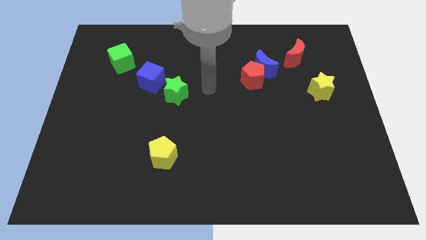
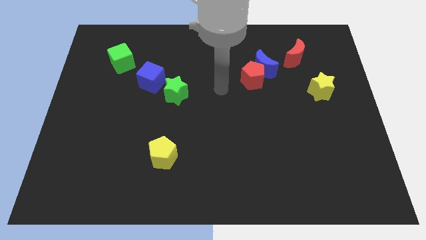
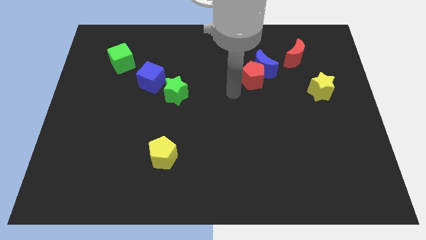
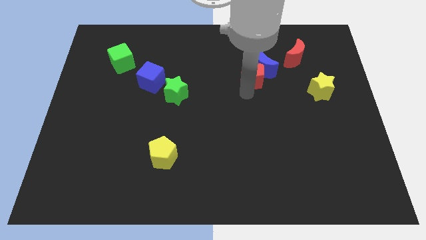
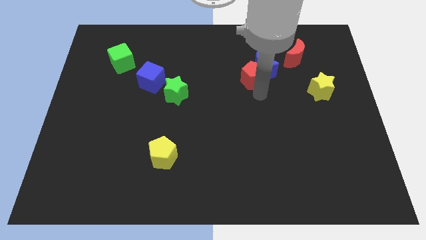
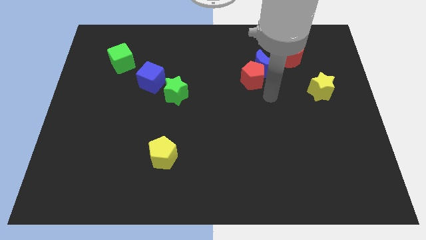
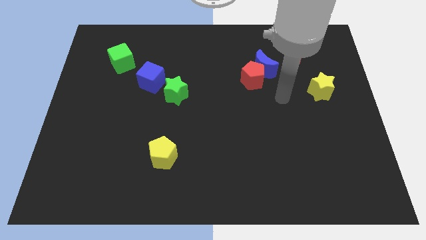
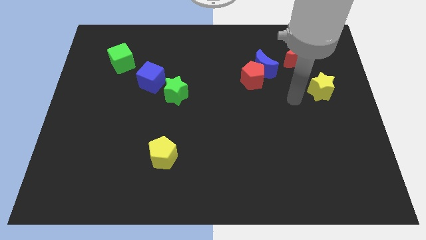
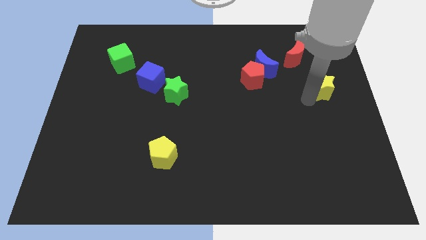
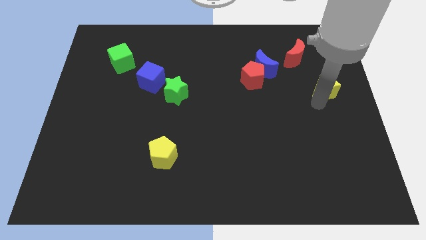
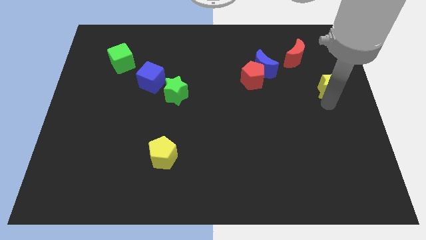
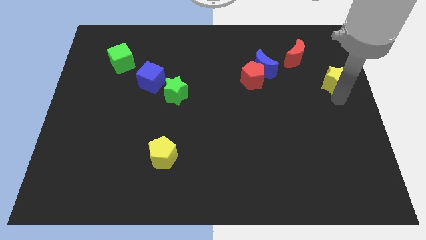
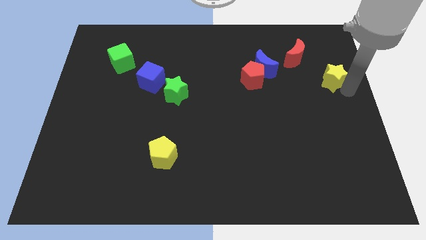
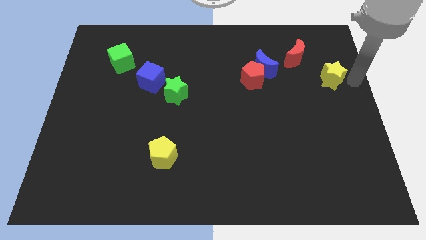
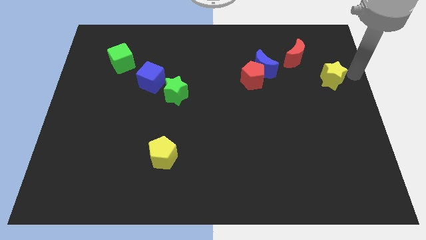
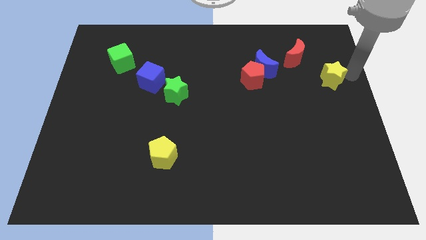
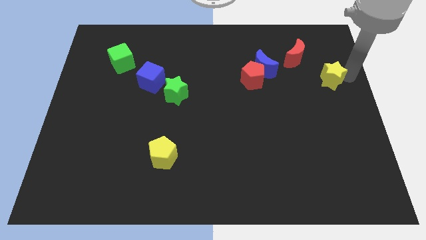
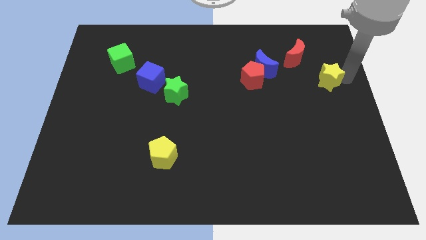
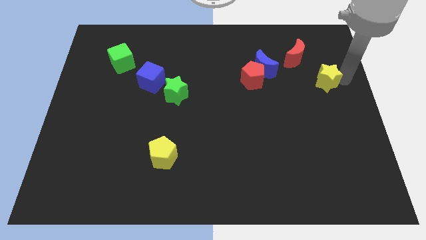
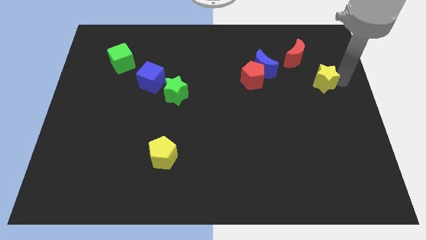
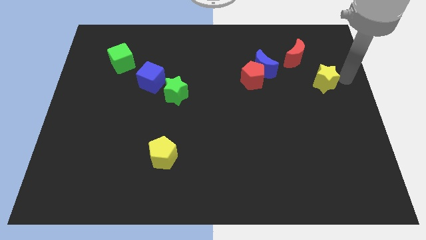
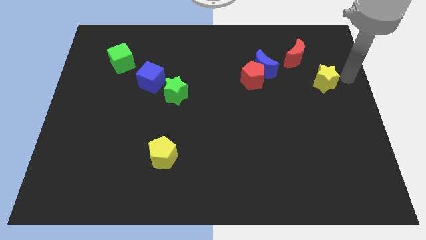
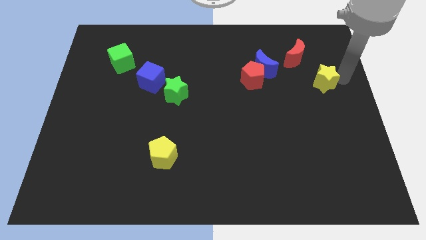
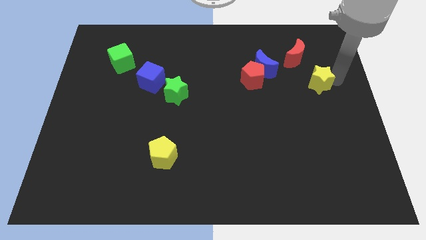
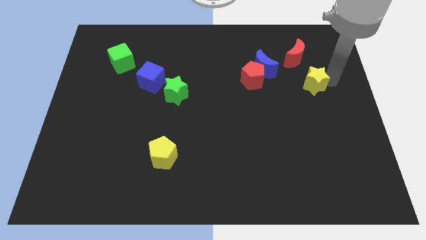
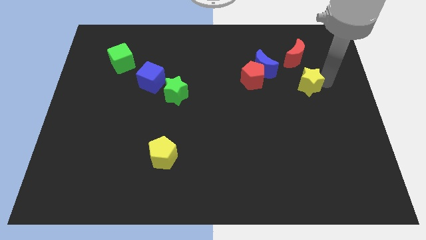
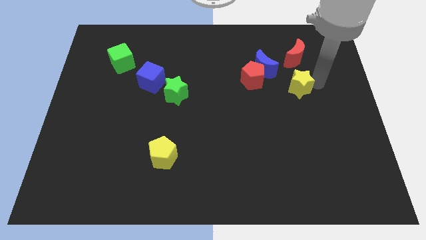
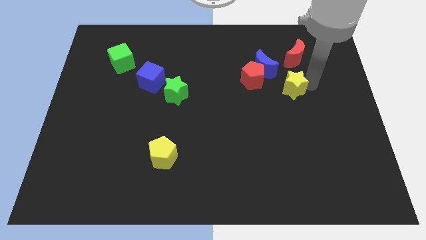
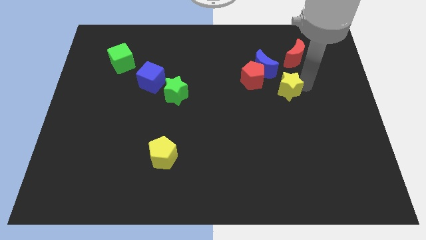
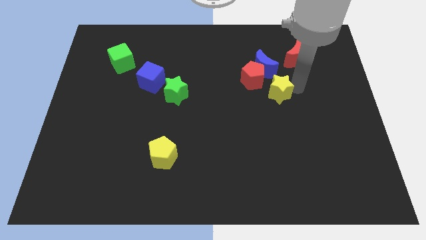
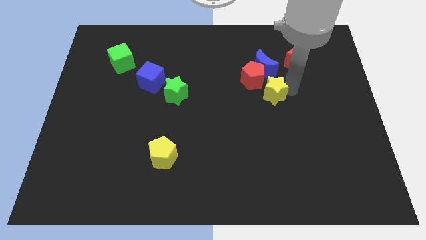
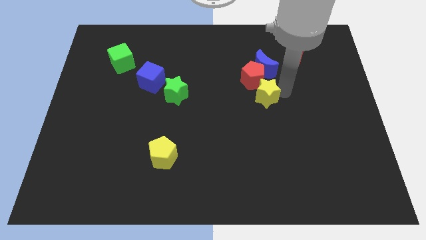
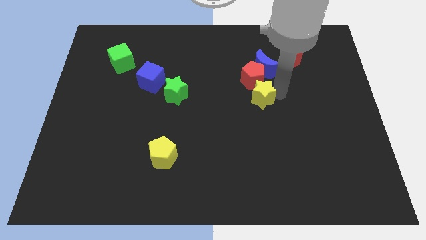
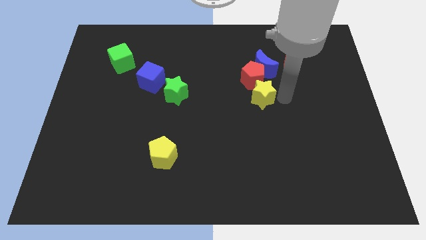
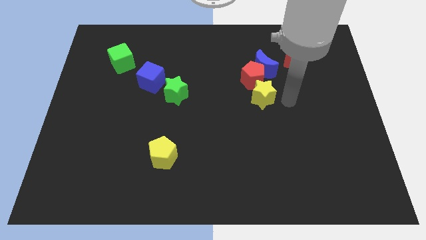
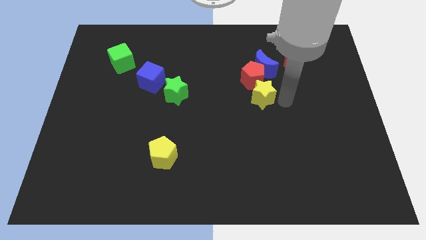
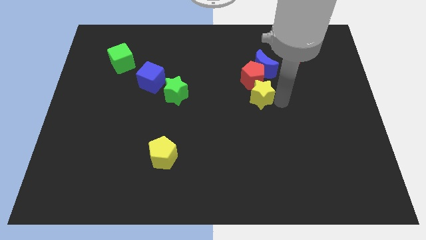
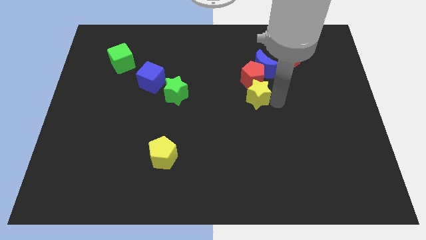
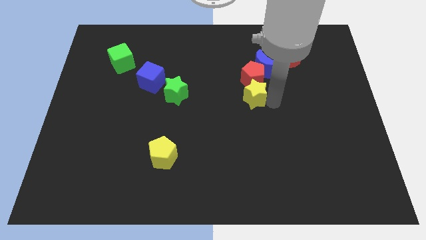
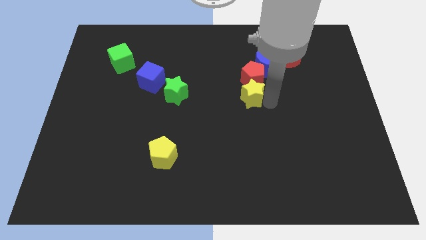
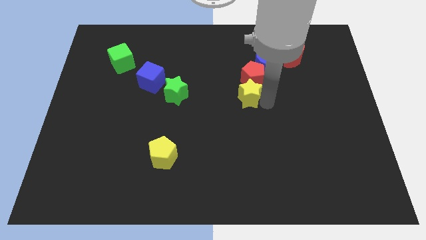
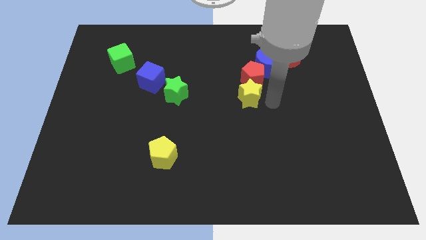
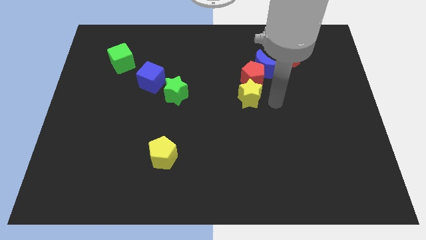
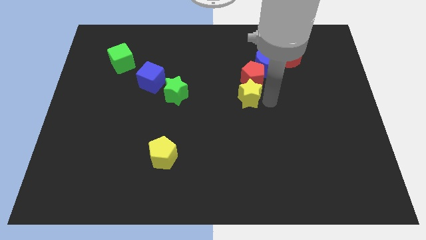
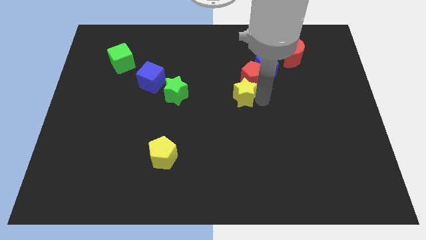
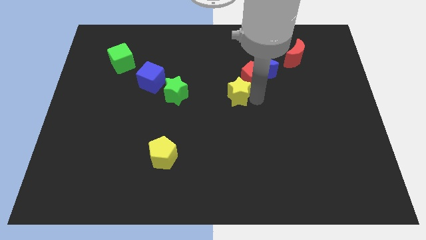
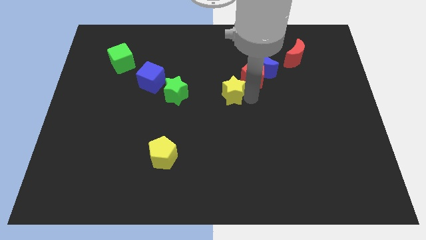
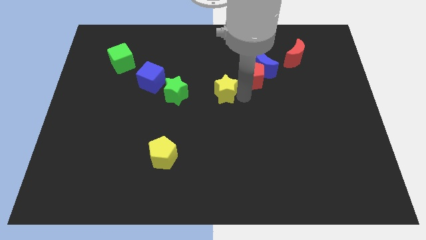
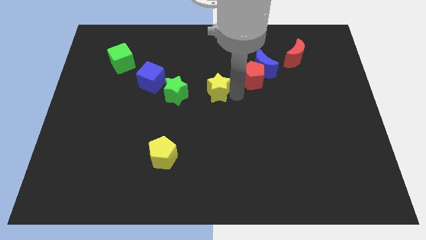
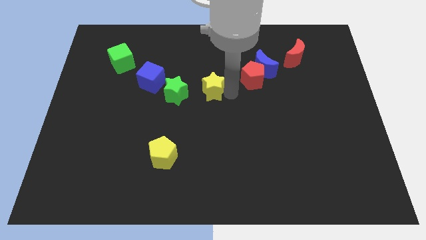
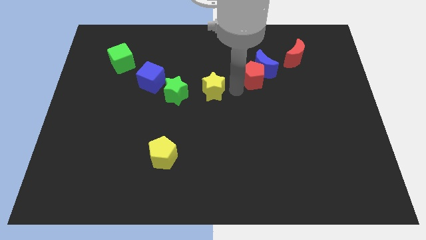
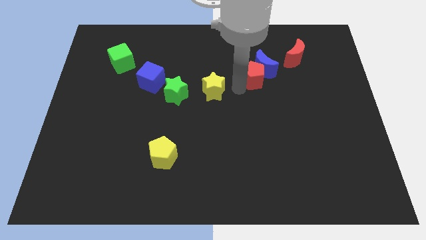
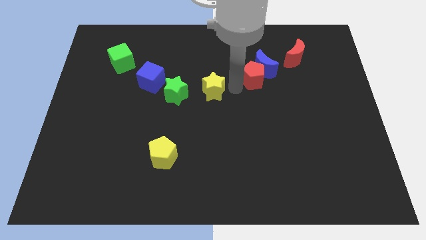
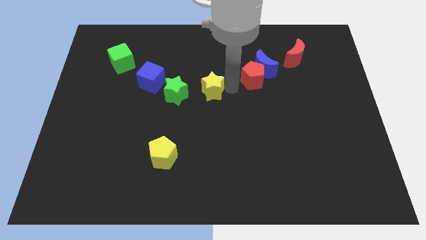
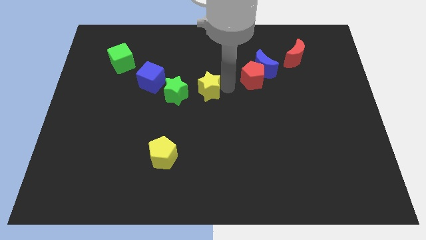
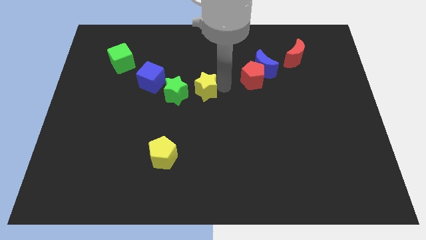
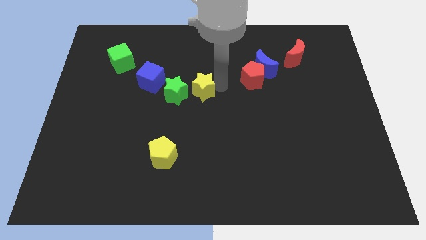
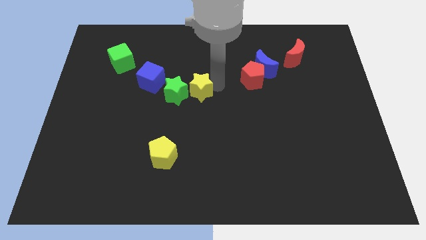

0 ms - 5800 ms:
move the yellow star to the green star

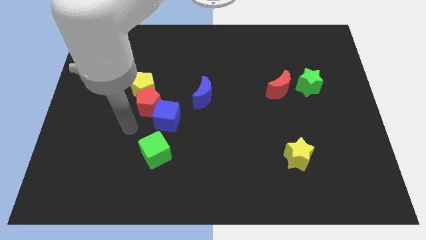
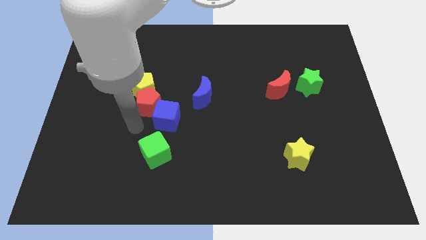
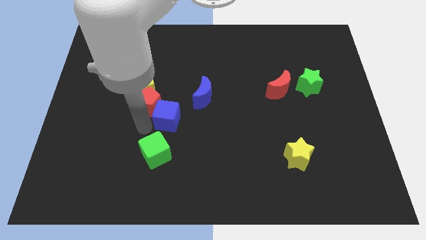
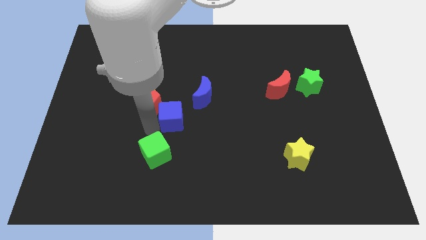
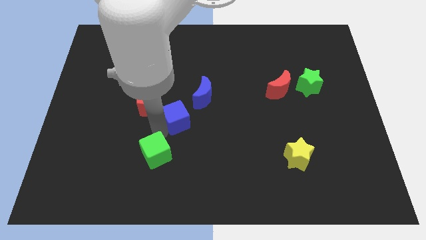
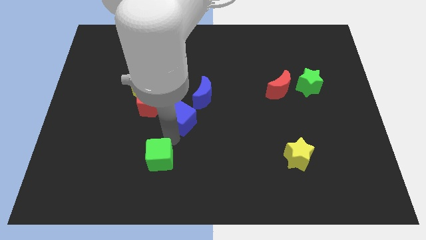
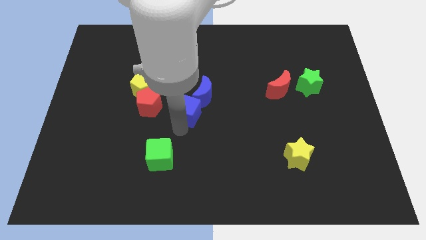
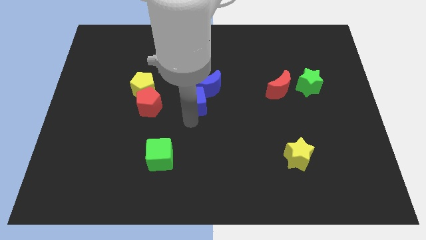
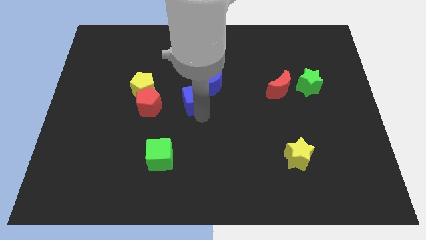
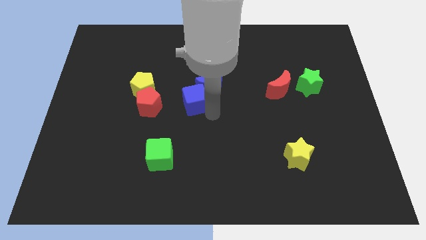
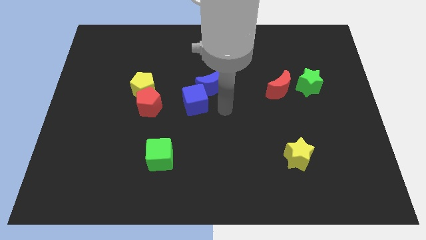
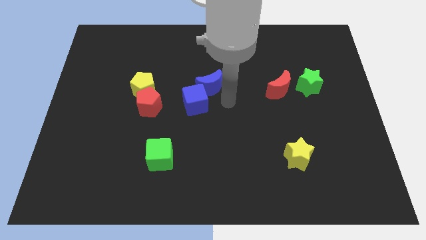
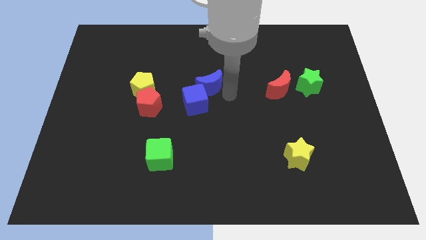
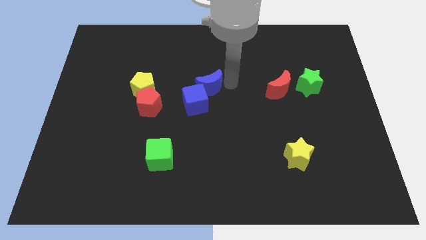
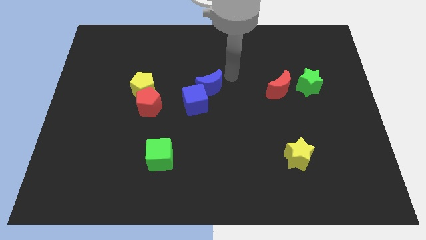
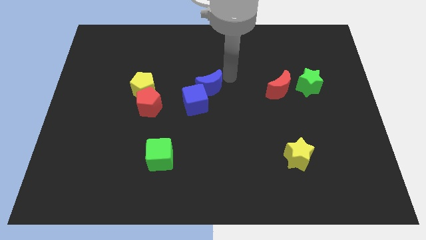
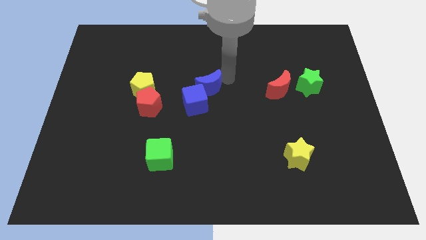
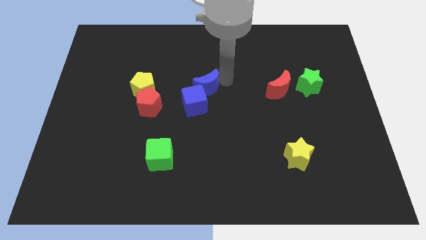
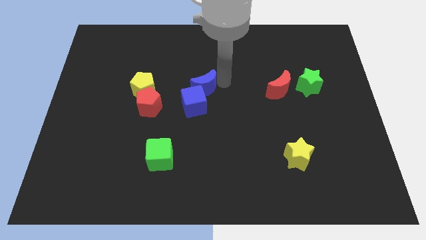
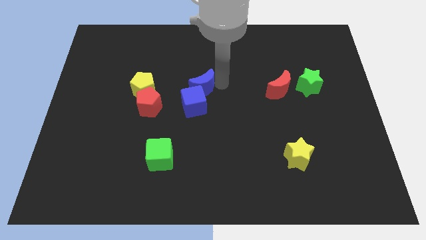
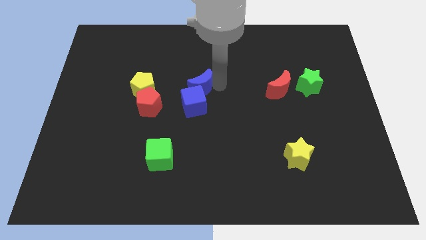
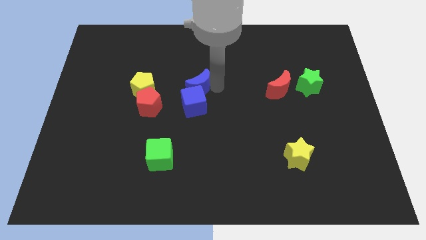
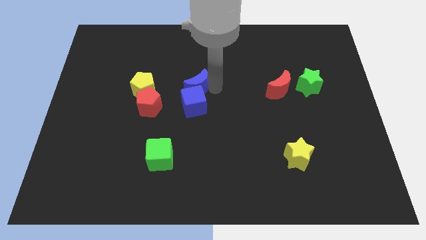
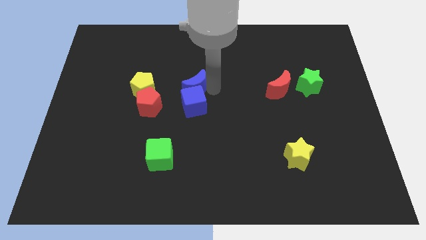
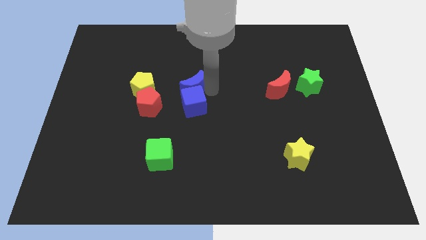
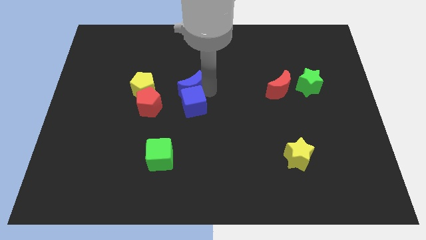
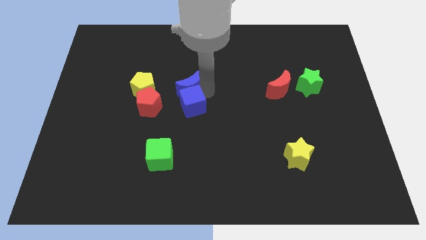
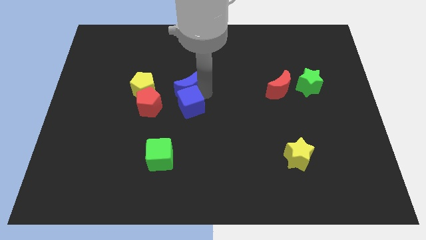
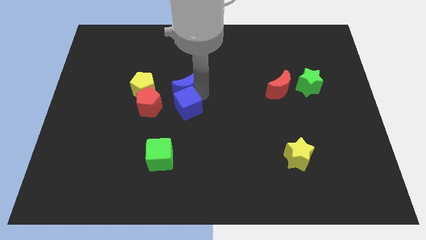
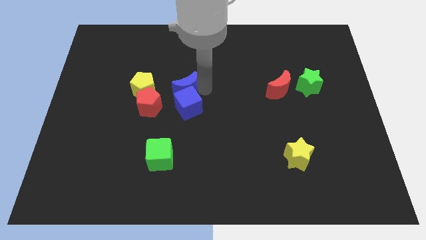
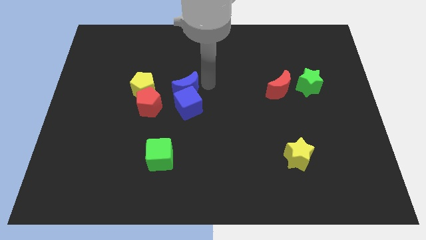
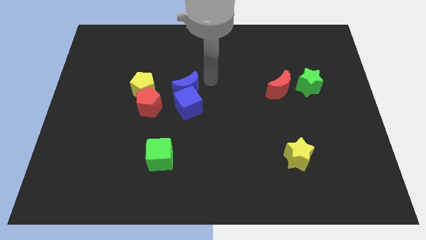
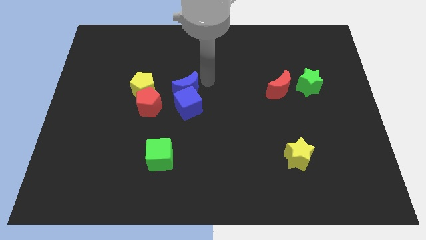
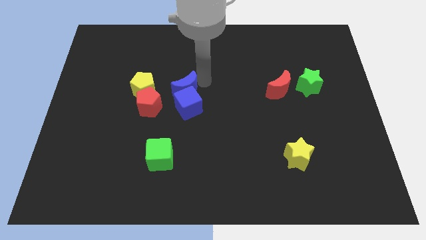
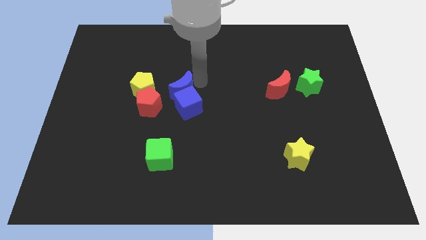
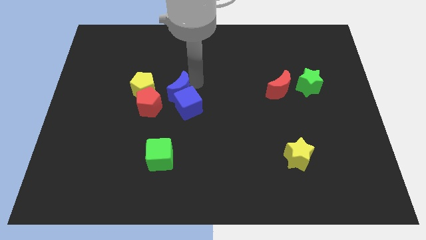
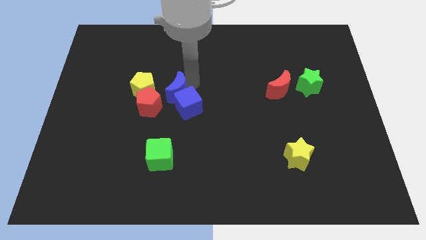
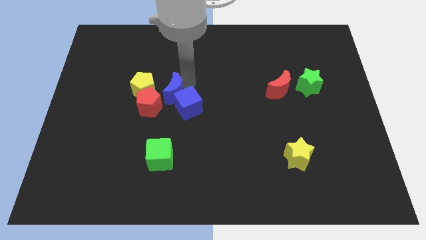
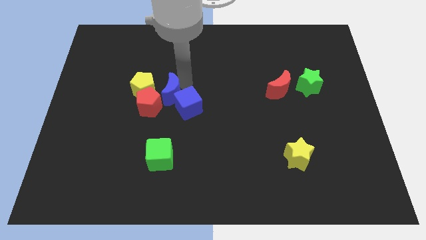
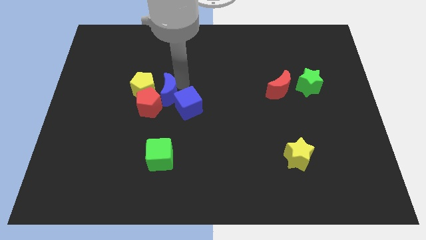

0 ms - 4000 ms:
move the blue moon to the red pentagon
